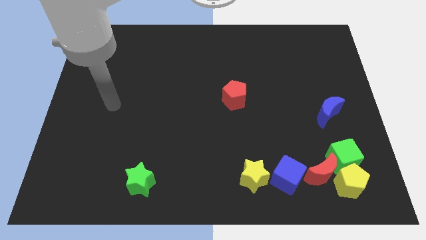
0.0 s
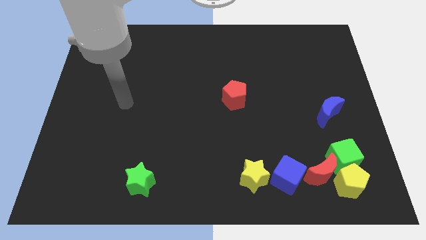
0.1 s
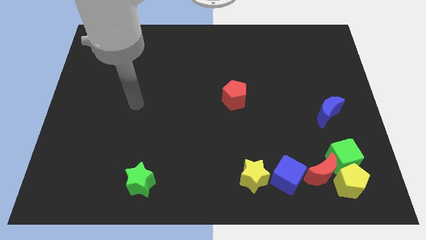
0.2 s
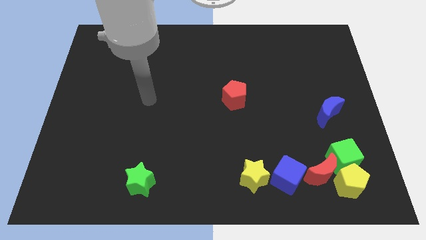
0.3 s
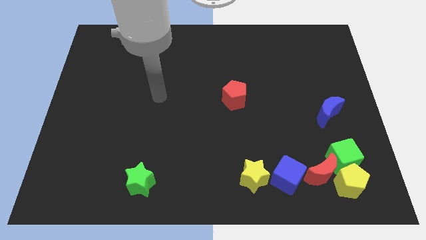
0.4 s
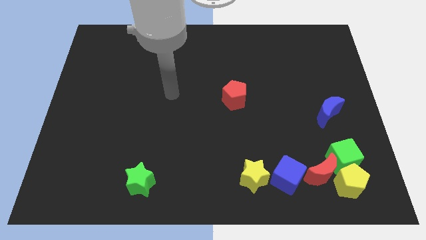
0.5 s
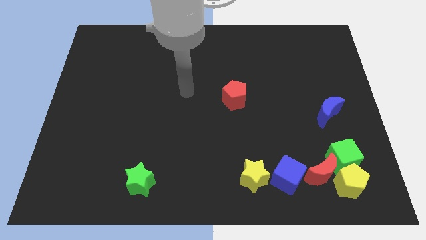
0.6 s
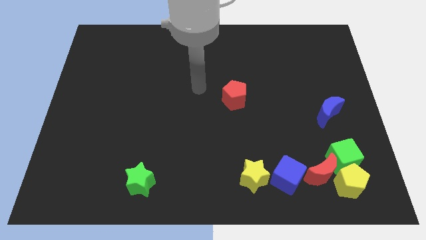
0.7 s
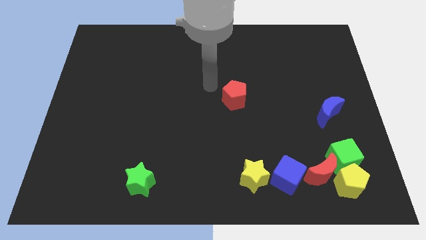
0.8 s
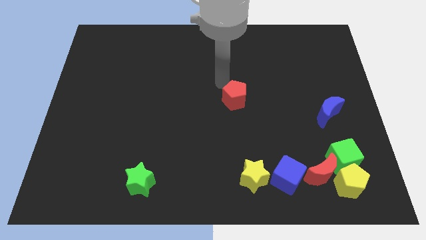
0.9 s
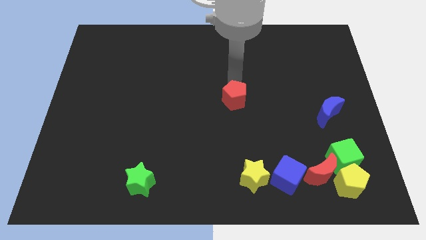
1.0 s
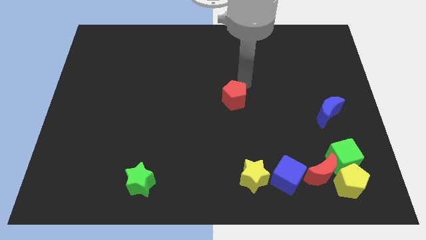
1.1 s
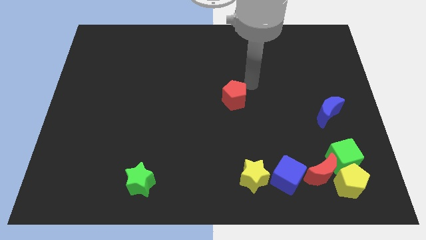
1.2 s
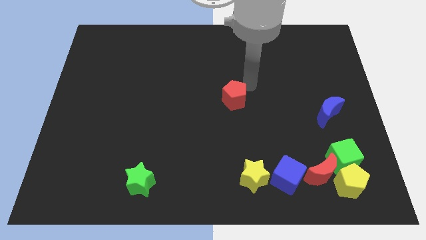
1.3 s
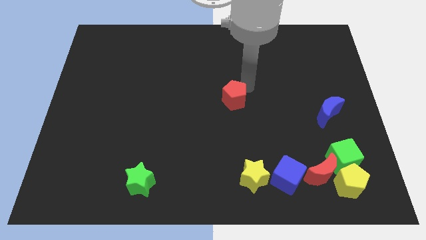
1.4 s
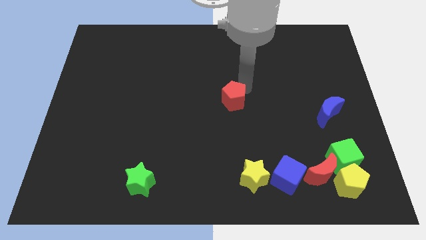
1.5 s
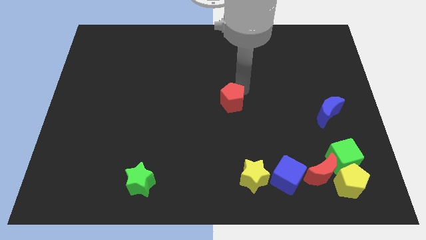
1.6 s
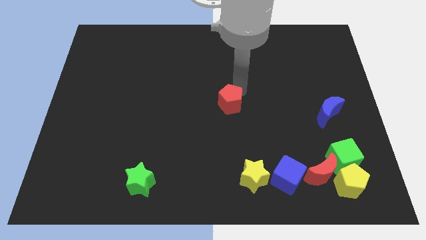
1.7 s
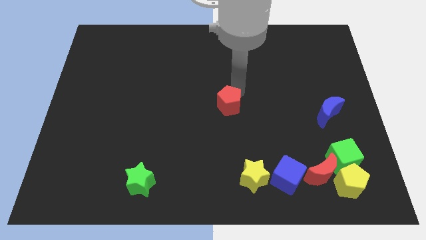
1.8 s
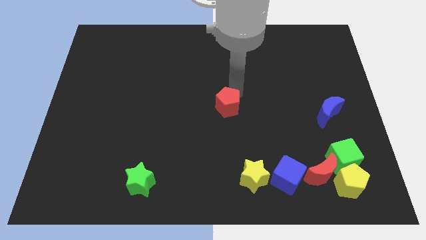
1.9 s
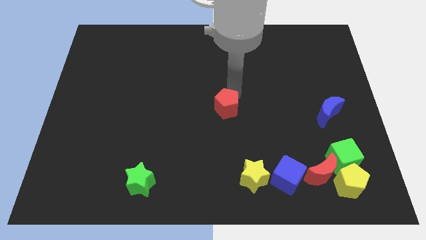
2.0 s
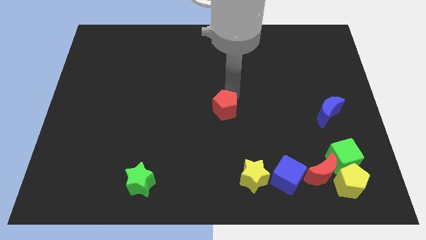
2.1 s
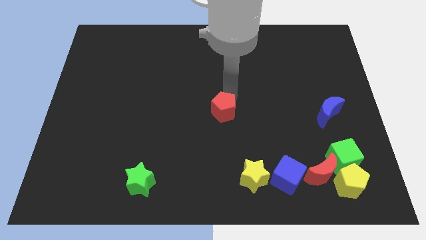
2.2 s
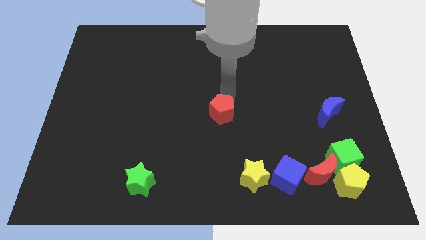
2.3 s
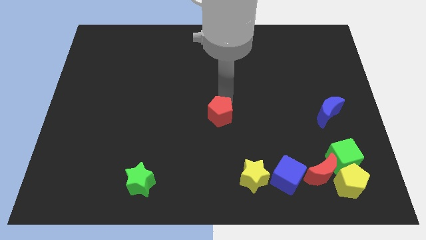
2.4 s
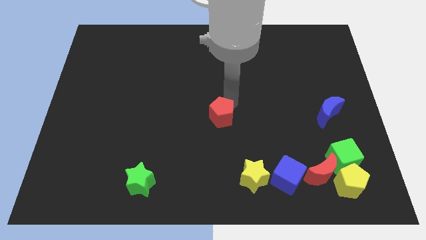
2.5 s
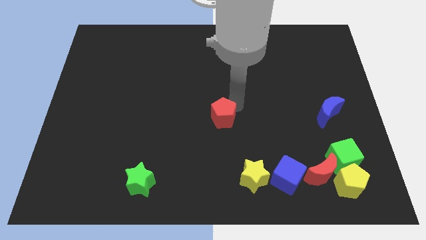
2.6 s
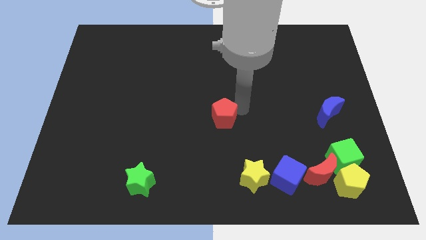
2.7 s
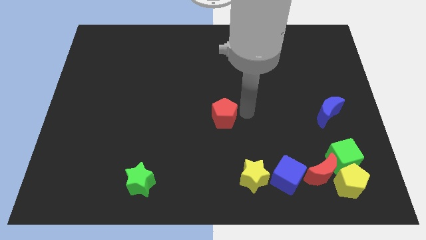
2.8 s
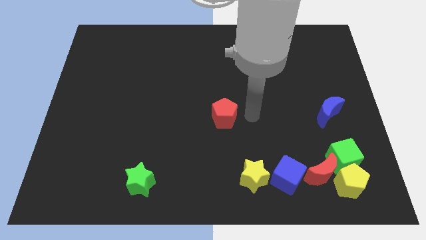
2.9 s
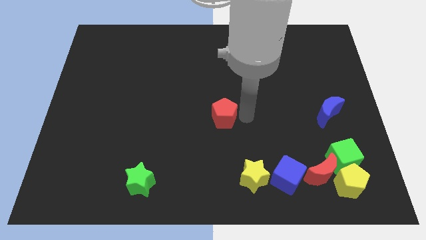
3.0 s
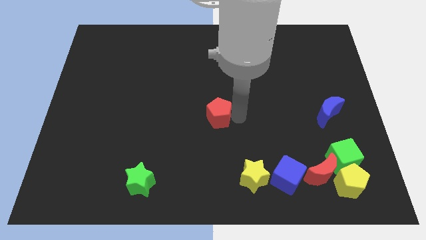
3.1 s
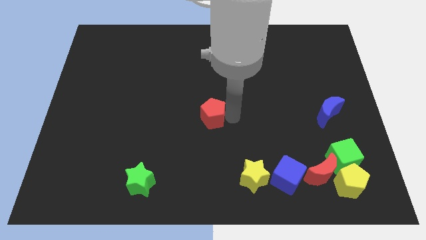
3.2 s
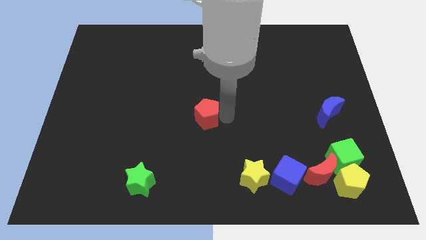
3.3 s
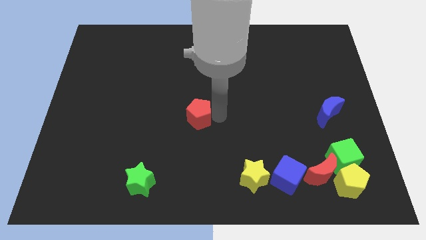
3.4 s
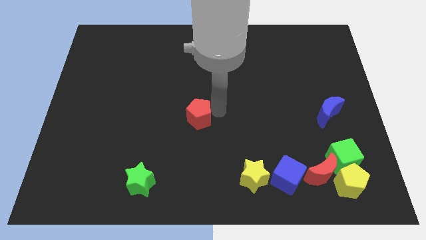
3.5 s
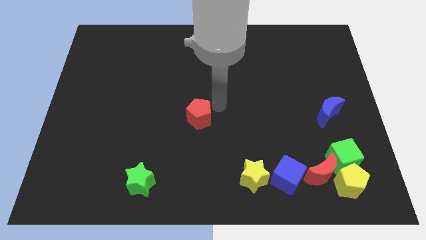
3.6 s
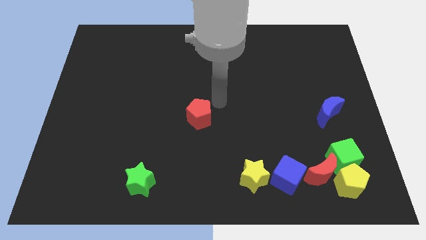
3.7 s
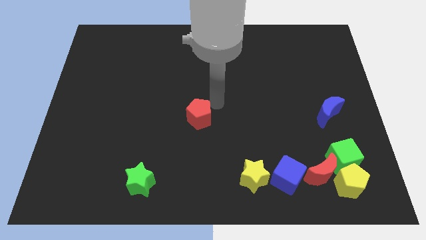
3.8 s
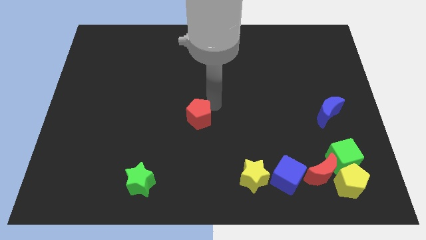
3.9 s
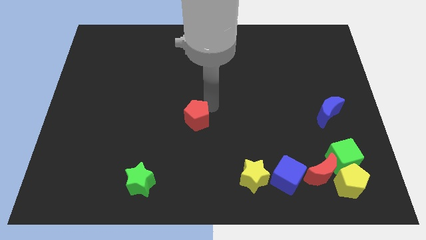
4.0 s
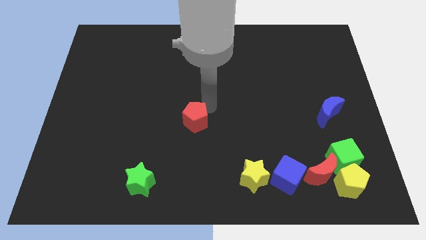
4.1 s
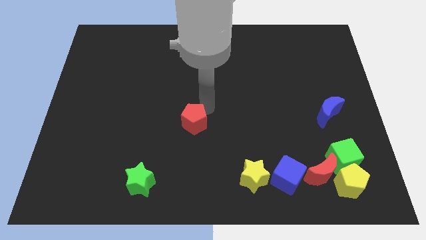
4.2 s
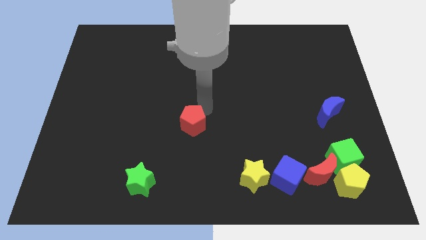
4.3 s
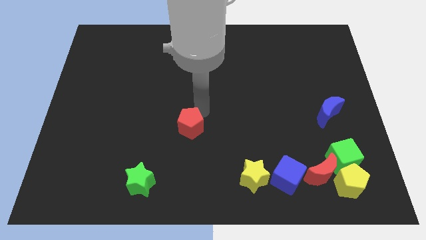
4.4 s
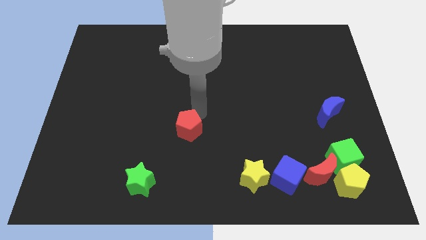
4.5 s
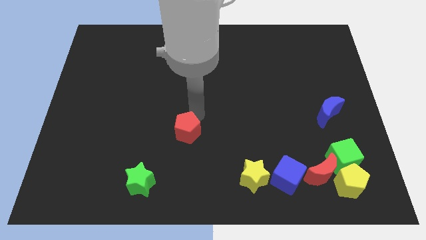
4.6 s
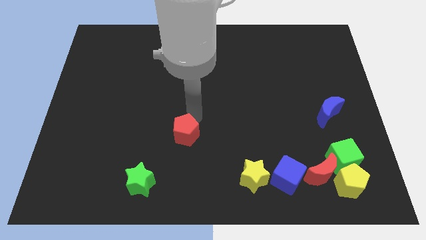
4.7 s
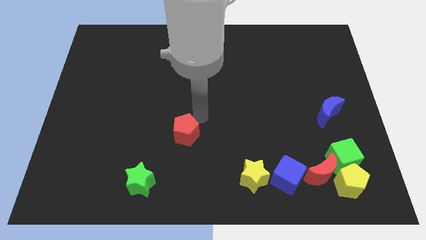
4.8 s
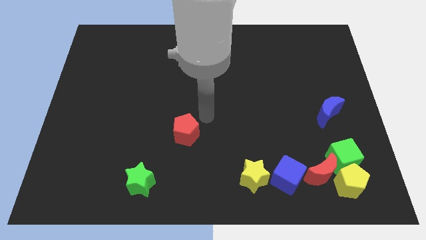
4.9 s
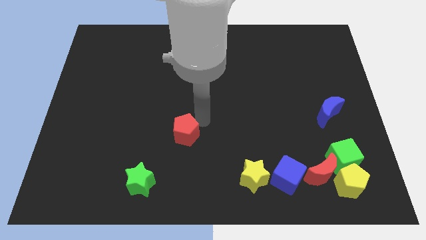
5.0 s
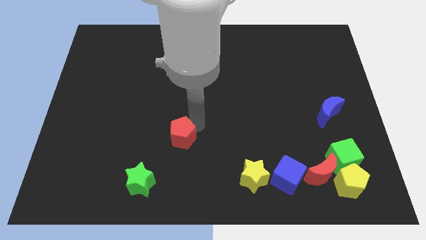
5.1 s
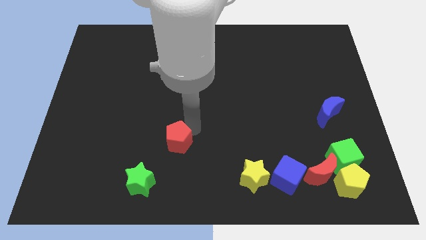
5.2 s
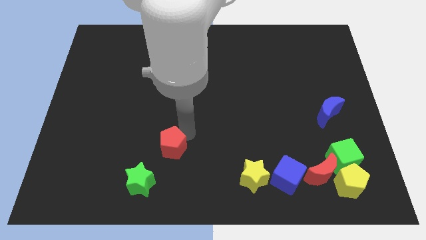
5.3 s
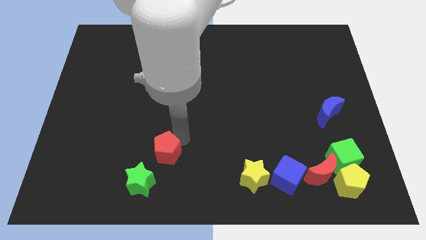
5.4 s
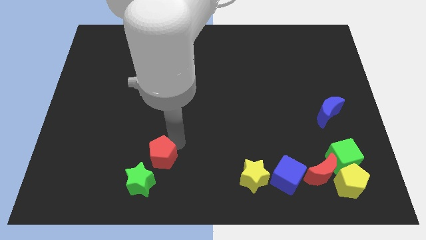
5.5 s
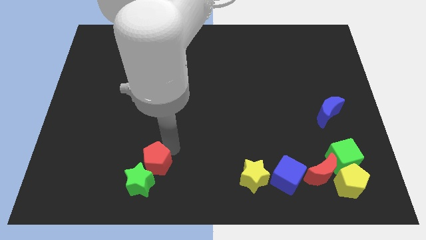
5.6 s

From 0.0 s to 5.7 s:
slide the red pentagon to the green star

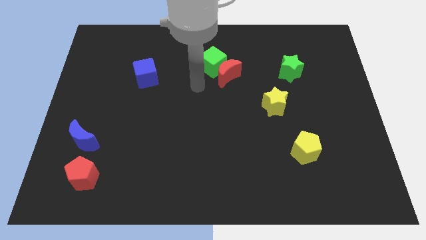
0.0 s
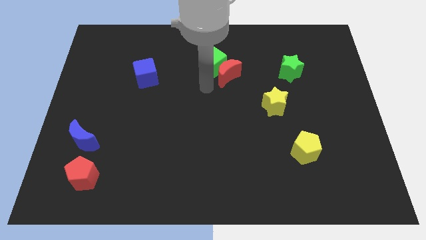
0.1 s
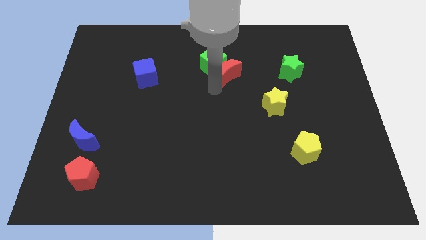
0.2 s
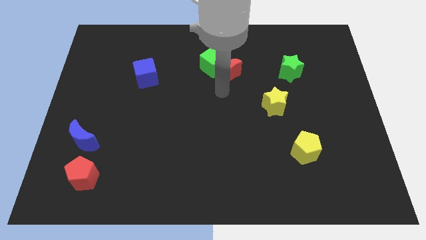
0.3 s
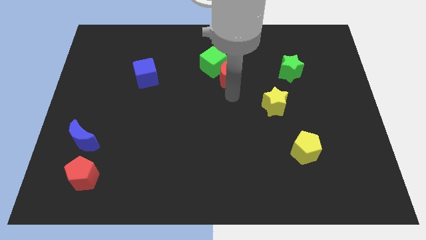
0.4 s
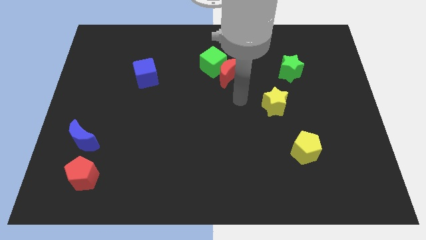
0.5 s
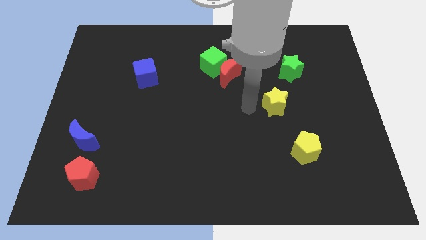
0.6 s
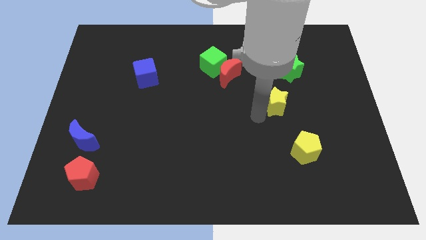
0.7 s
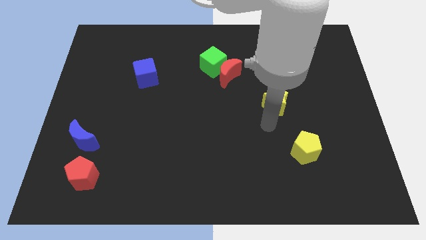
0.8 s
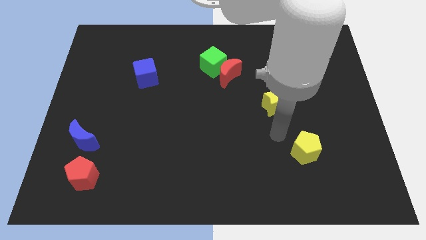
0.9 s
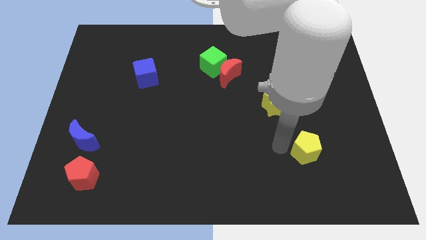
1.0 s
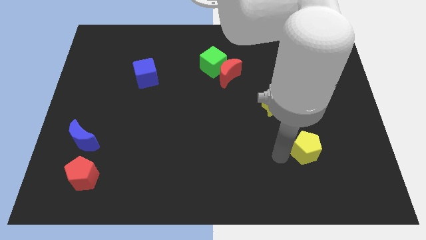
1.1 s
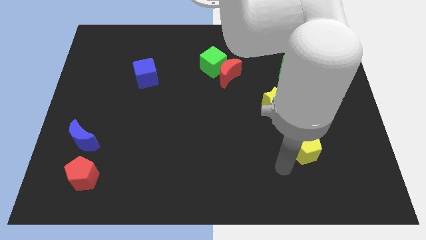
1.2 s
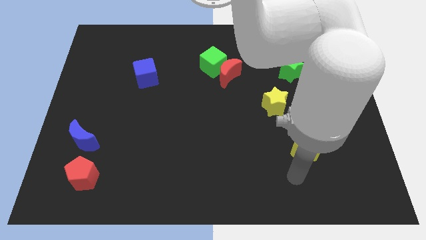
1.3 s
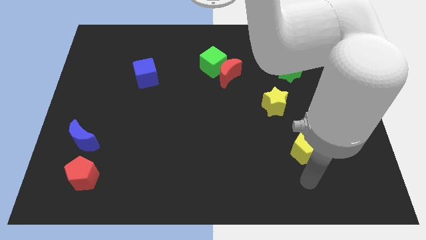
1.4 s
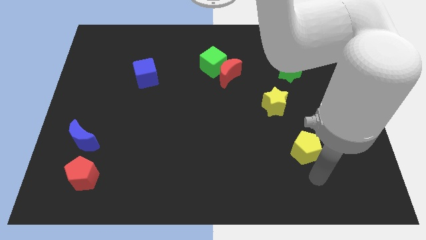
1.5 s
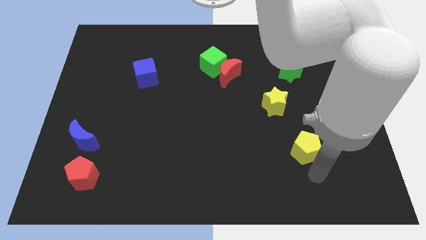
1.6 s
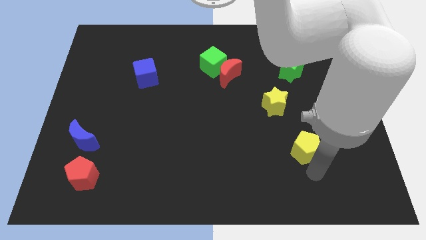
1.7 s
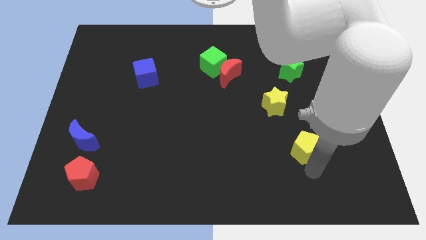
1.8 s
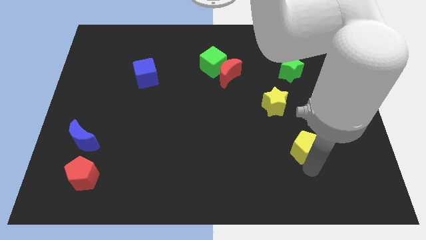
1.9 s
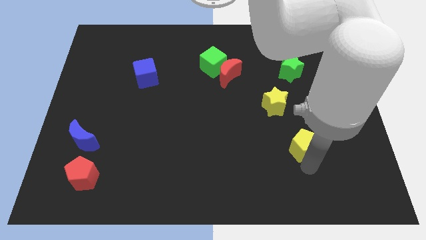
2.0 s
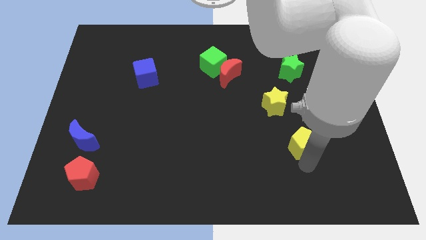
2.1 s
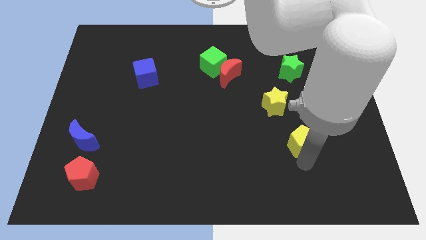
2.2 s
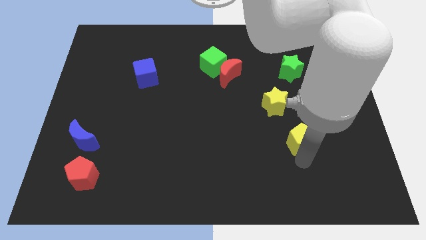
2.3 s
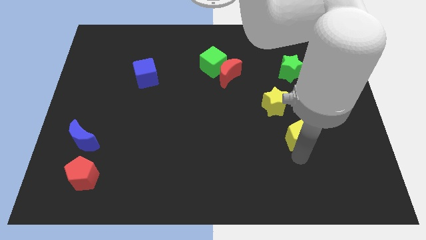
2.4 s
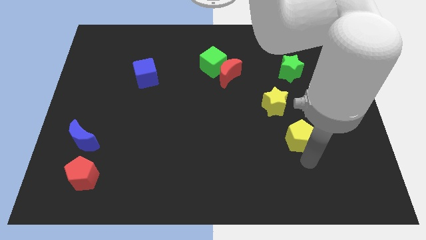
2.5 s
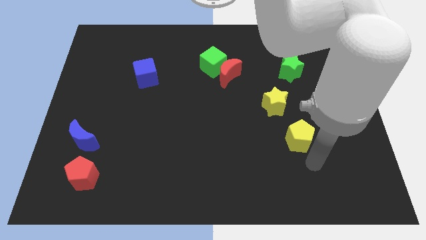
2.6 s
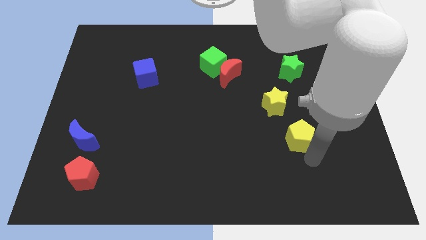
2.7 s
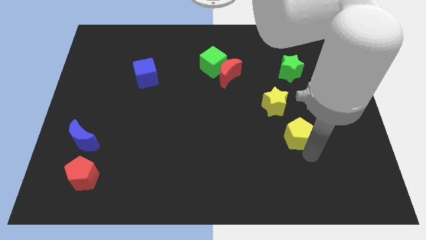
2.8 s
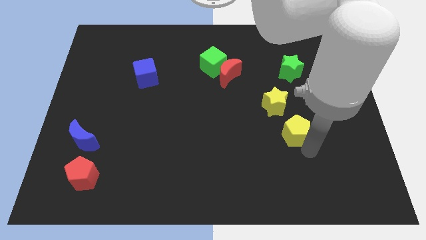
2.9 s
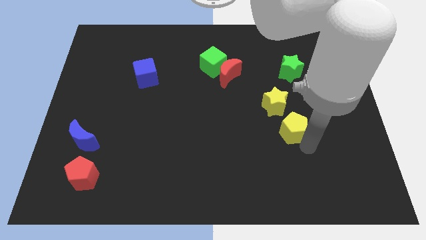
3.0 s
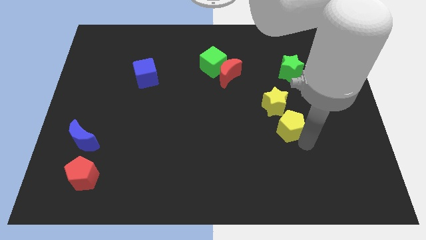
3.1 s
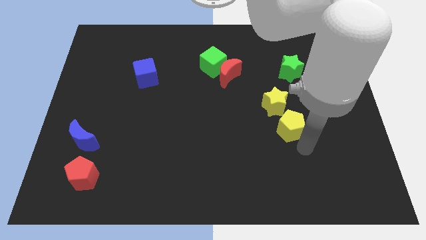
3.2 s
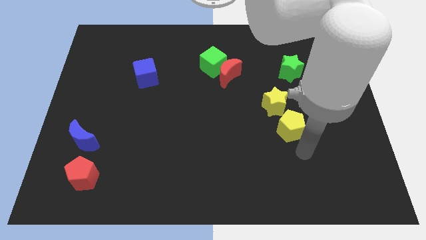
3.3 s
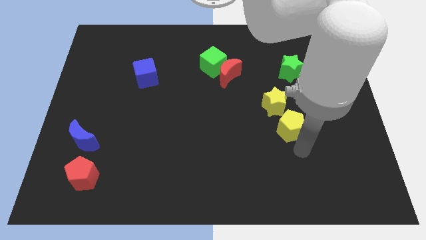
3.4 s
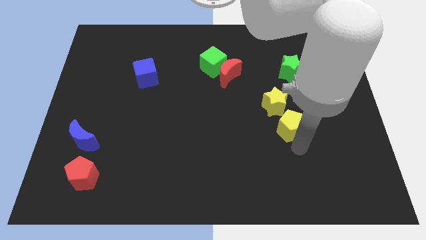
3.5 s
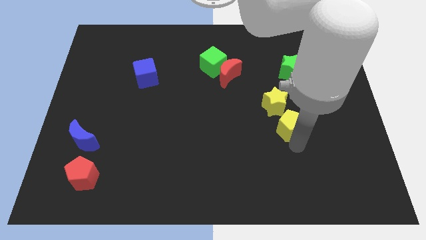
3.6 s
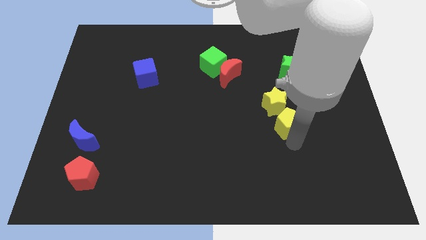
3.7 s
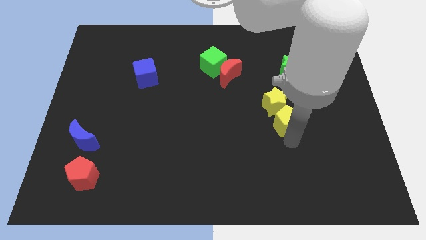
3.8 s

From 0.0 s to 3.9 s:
slide the yellow pentagon to the yellow star
